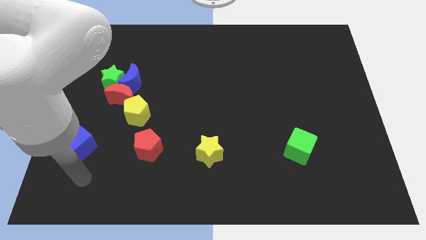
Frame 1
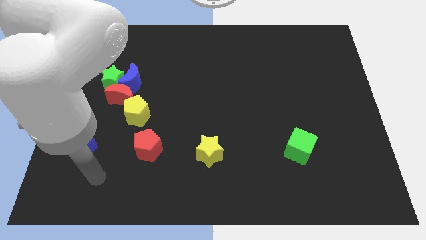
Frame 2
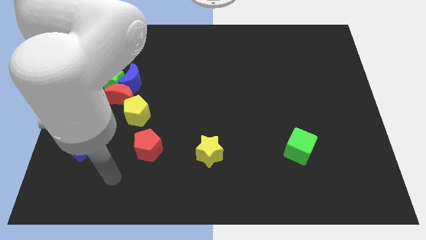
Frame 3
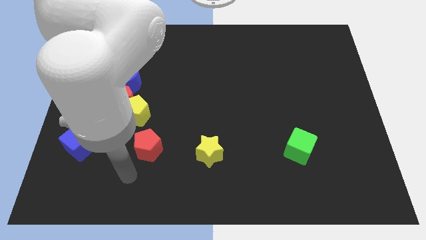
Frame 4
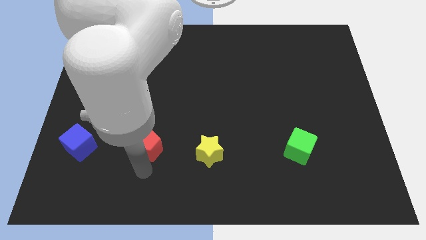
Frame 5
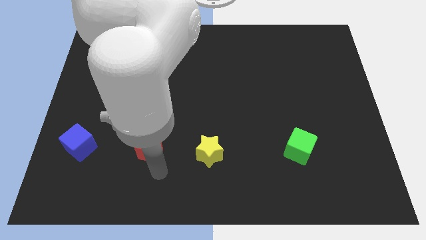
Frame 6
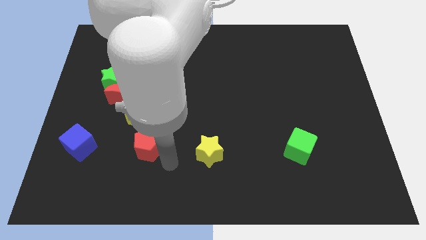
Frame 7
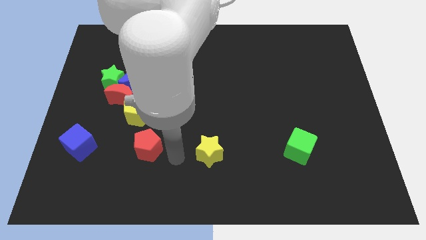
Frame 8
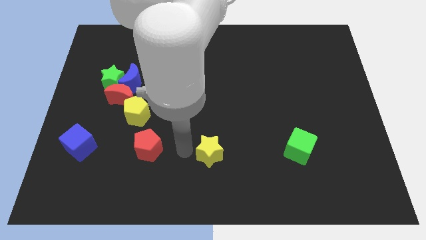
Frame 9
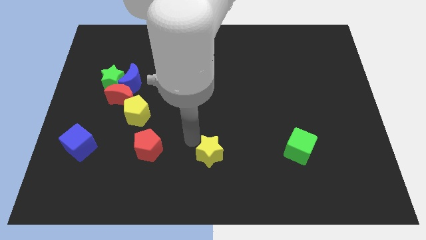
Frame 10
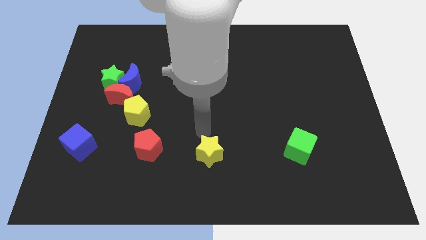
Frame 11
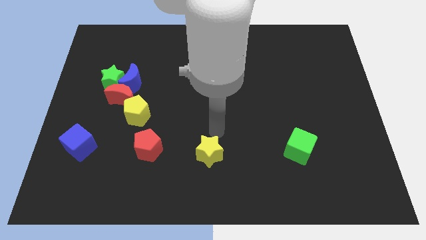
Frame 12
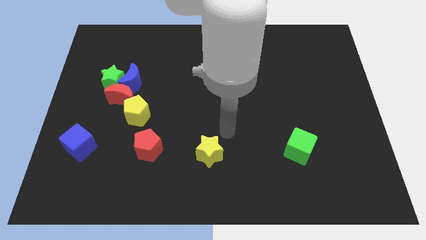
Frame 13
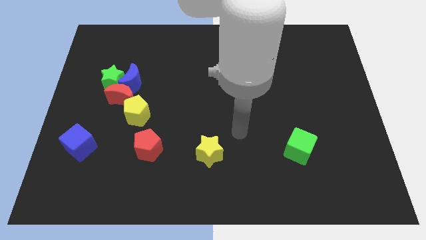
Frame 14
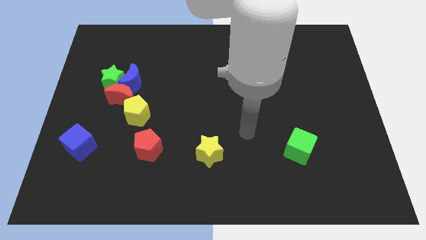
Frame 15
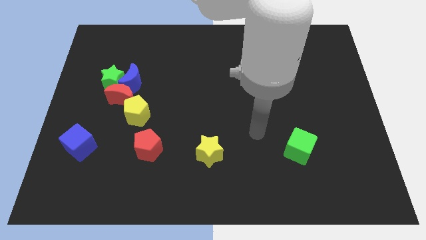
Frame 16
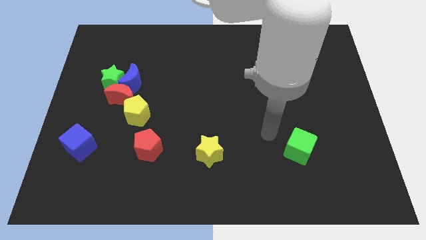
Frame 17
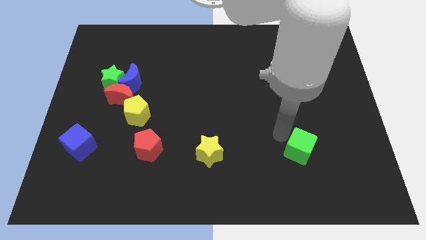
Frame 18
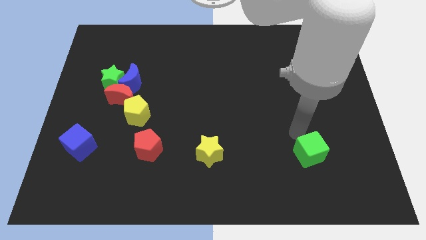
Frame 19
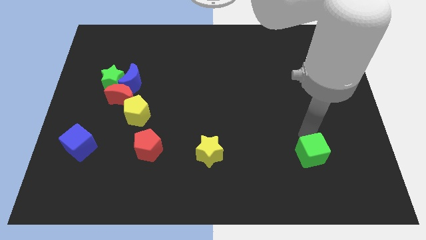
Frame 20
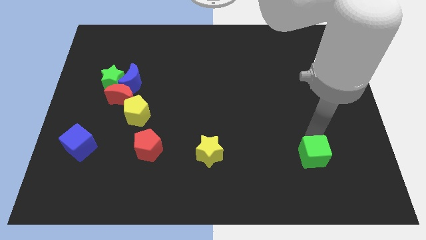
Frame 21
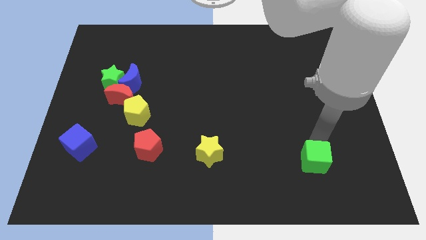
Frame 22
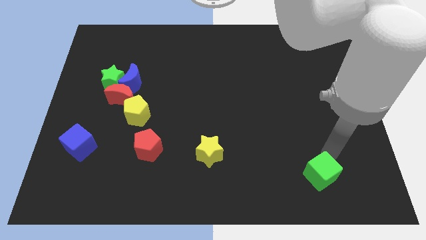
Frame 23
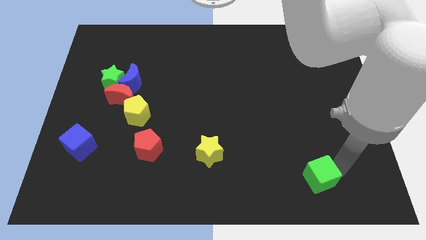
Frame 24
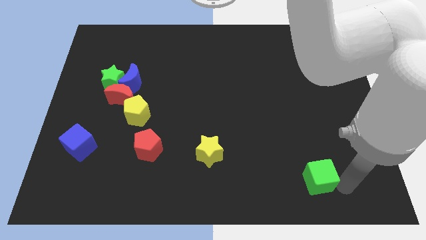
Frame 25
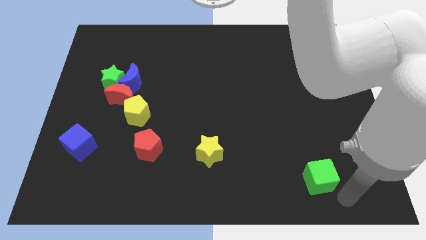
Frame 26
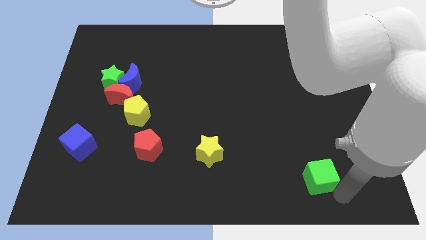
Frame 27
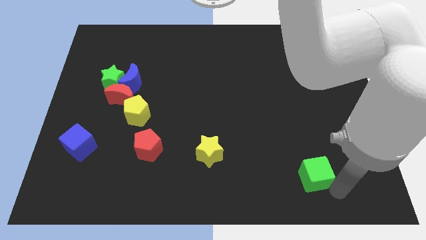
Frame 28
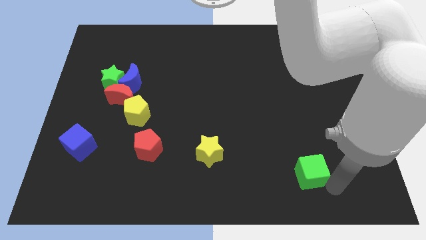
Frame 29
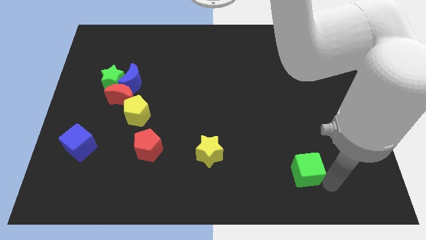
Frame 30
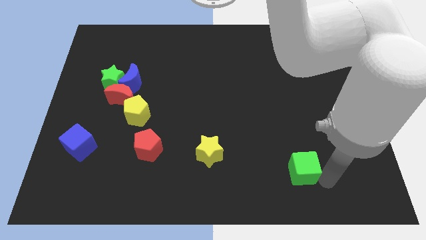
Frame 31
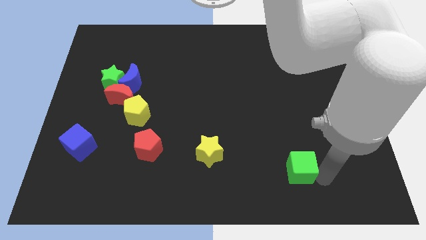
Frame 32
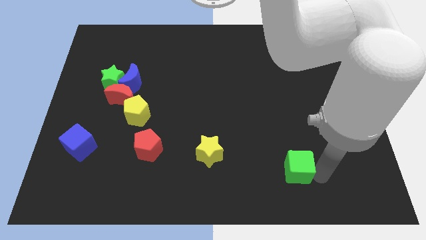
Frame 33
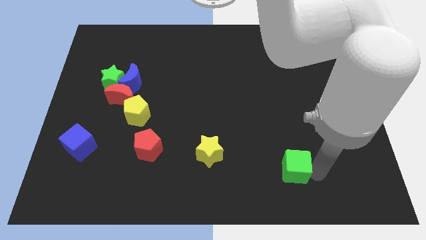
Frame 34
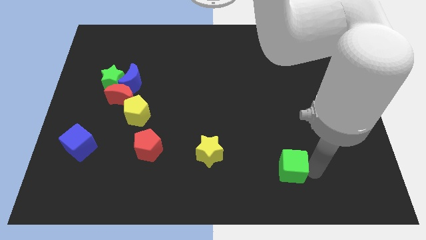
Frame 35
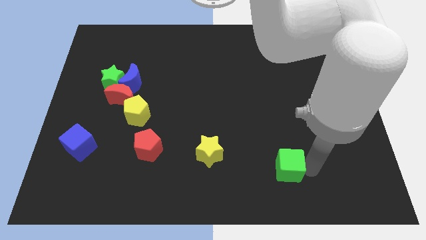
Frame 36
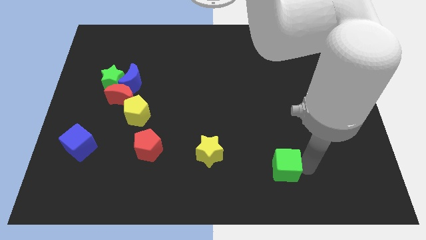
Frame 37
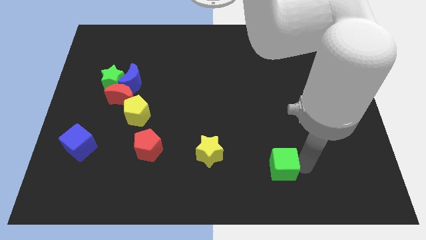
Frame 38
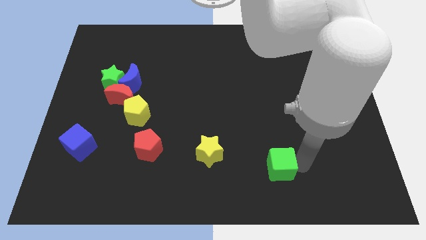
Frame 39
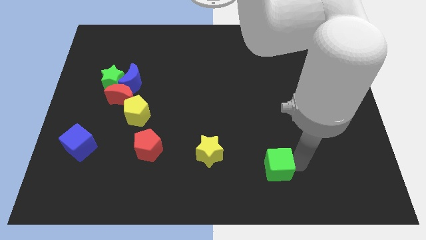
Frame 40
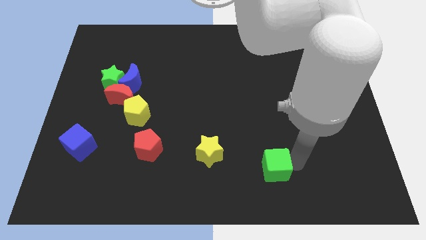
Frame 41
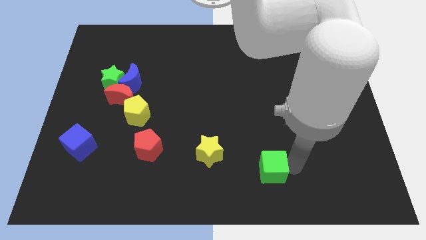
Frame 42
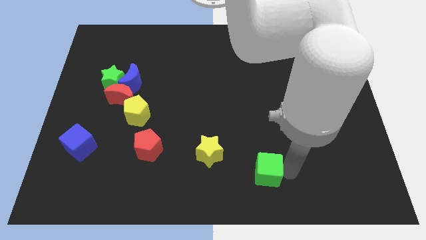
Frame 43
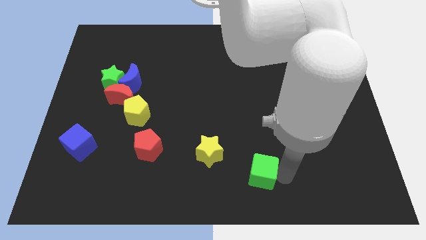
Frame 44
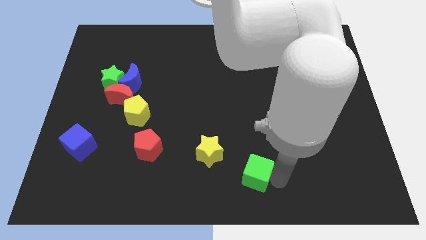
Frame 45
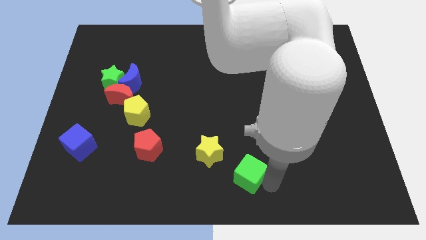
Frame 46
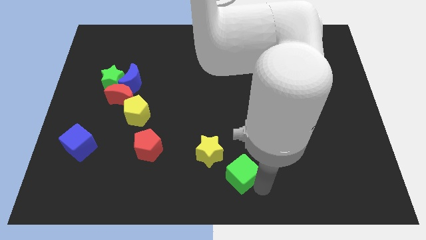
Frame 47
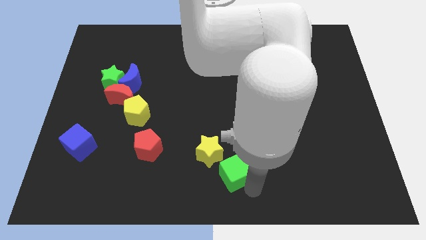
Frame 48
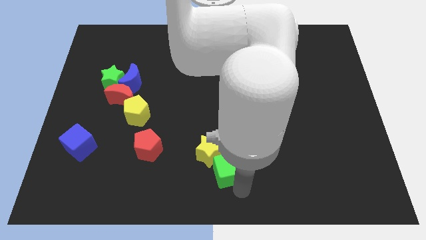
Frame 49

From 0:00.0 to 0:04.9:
push the green cube to the yellow star

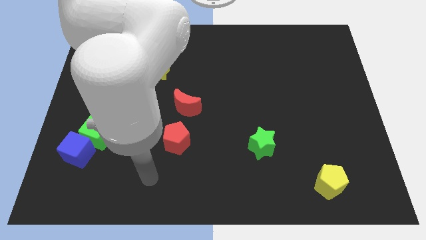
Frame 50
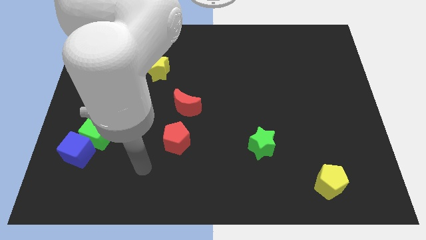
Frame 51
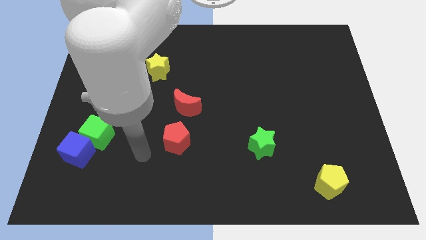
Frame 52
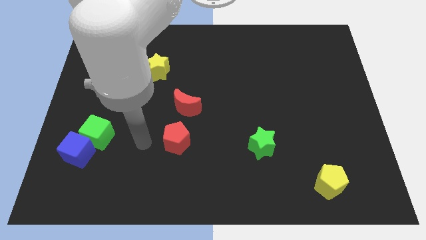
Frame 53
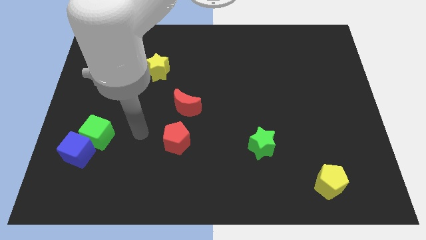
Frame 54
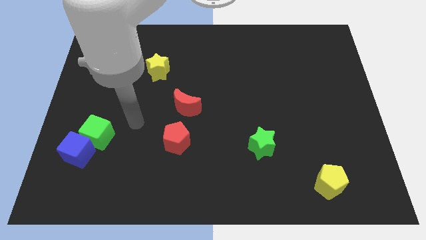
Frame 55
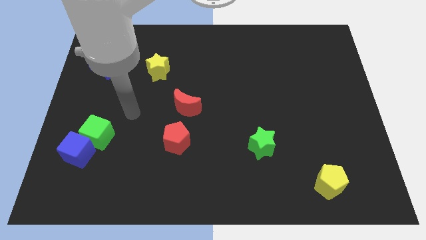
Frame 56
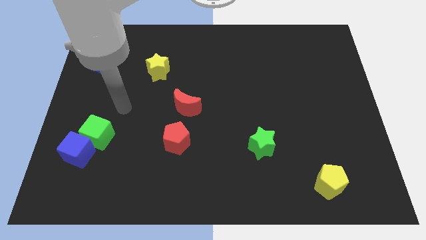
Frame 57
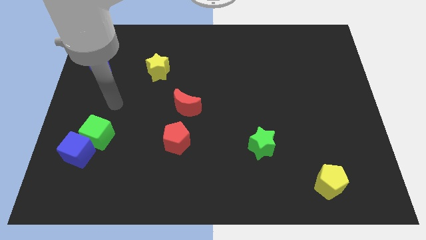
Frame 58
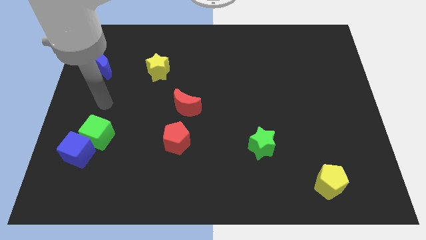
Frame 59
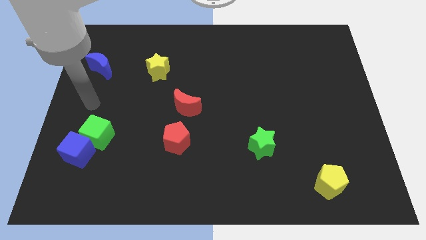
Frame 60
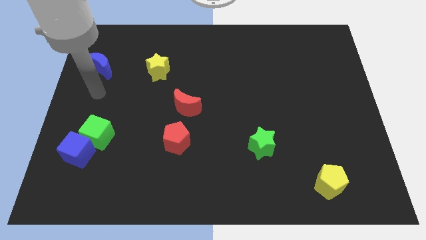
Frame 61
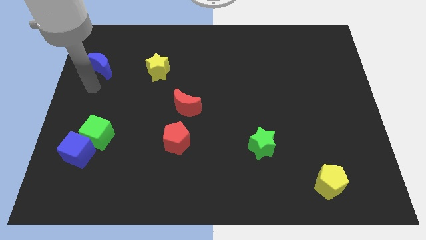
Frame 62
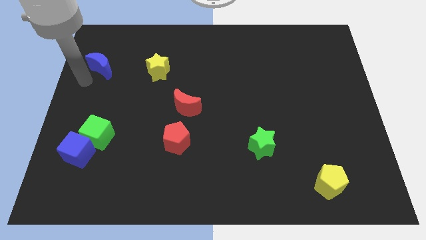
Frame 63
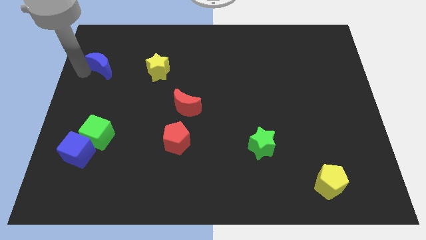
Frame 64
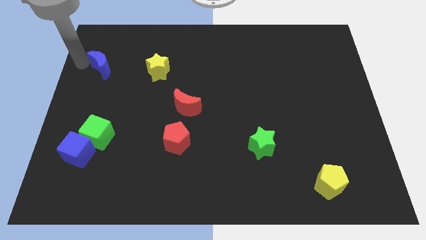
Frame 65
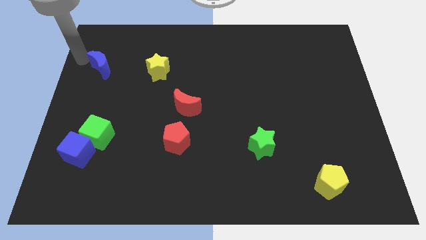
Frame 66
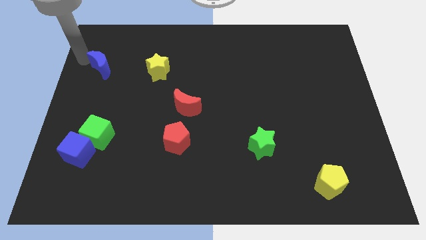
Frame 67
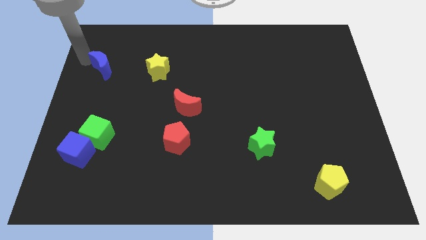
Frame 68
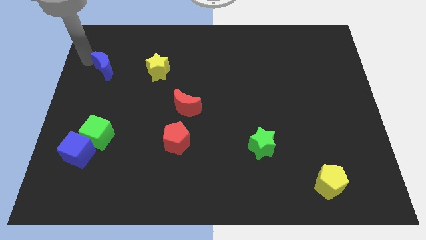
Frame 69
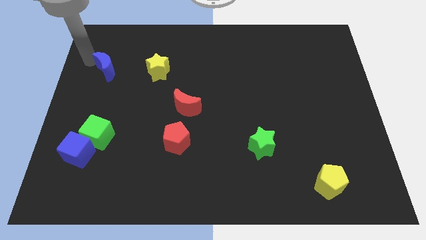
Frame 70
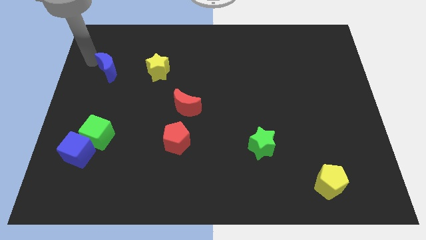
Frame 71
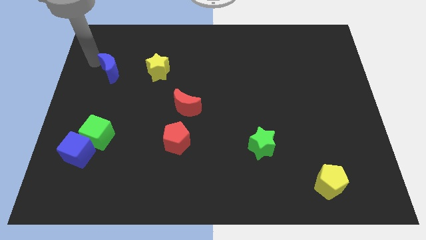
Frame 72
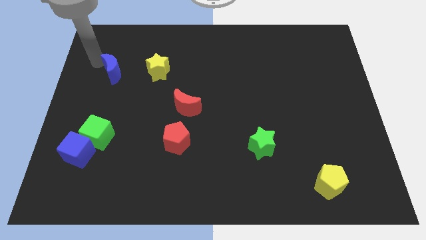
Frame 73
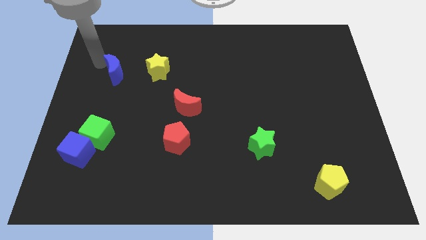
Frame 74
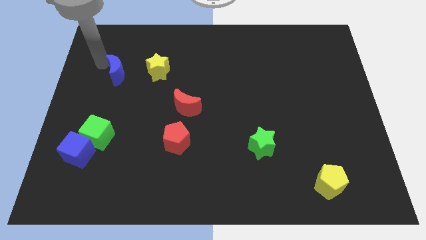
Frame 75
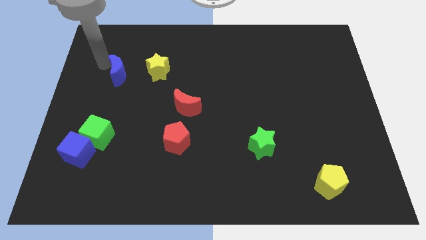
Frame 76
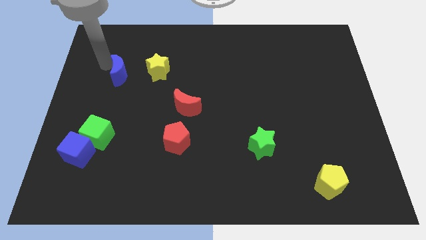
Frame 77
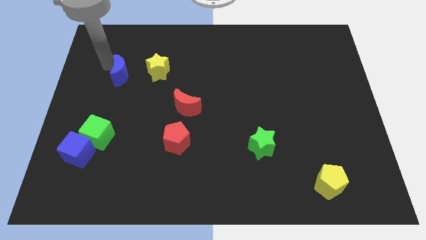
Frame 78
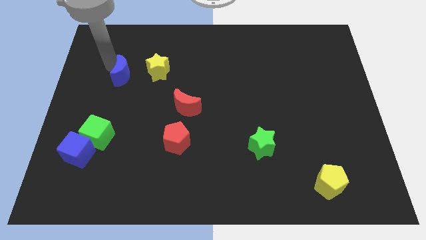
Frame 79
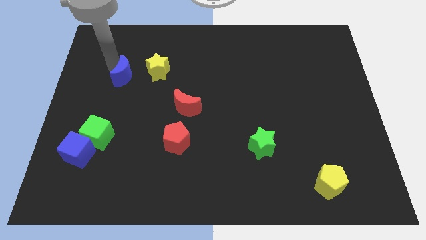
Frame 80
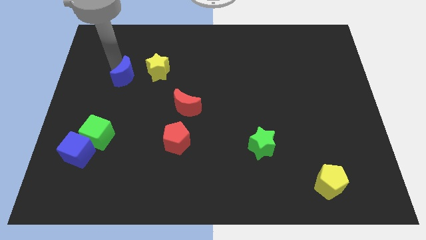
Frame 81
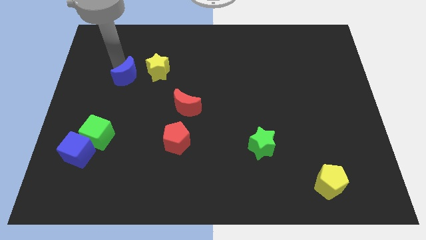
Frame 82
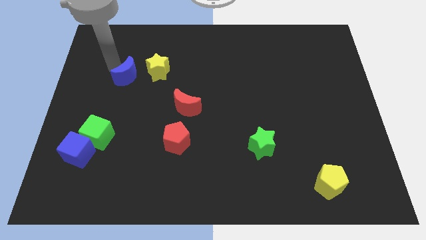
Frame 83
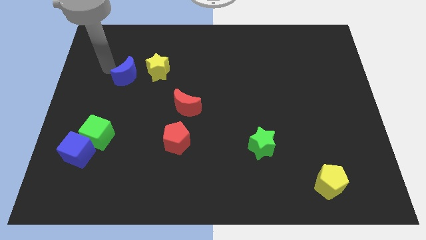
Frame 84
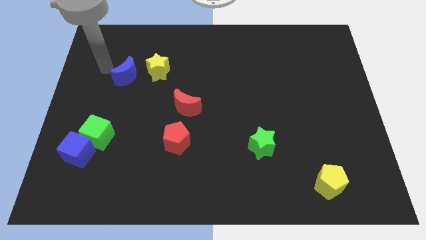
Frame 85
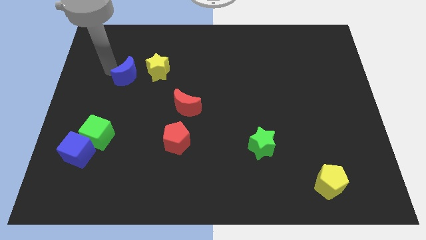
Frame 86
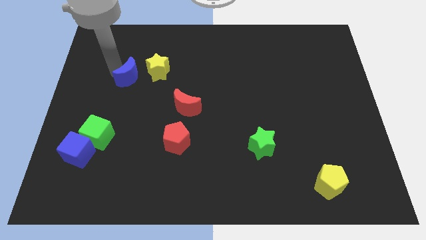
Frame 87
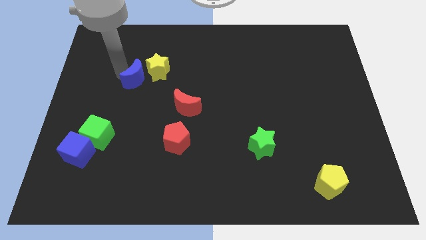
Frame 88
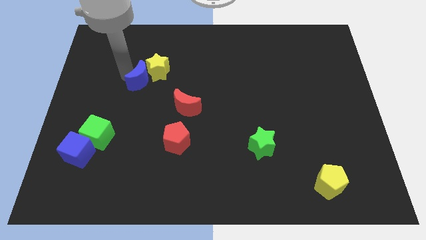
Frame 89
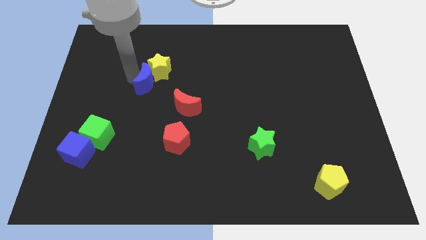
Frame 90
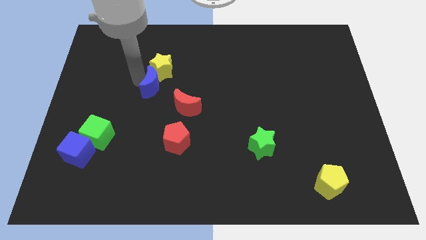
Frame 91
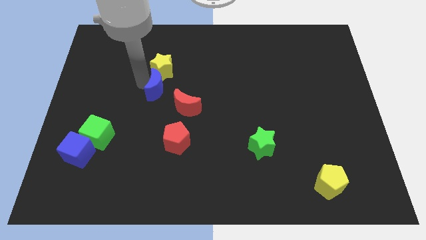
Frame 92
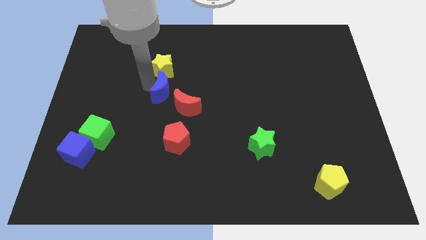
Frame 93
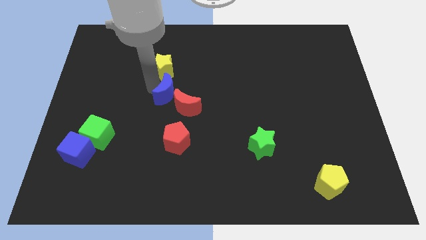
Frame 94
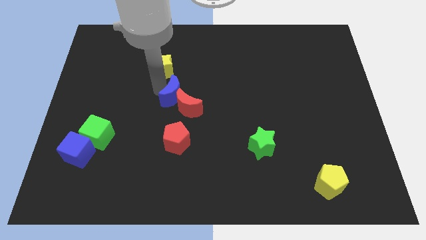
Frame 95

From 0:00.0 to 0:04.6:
push the blue moon next to the red moon
